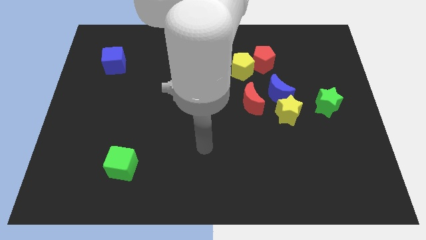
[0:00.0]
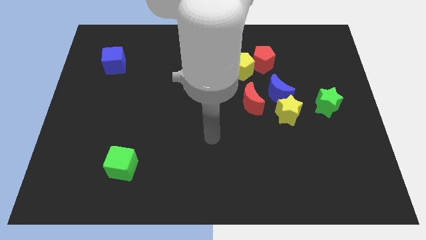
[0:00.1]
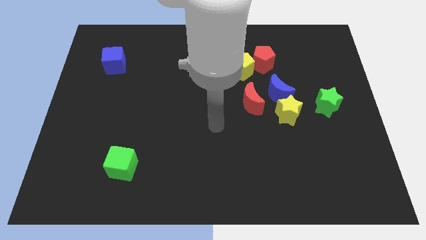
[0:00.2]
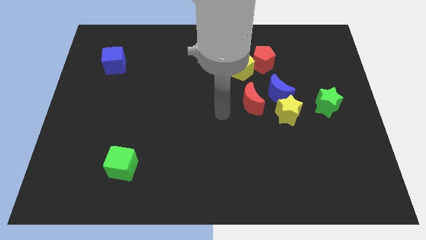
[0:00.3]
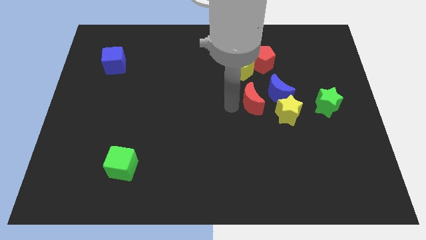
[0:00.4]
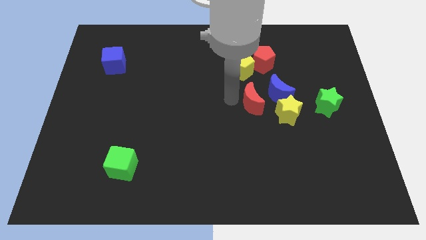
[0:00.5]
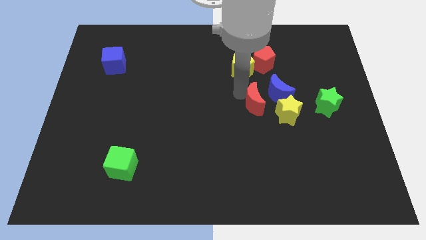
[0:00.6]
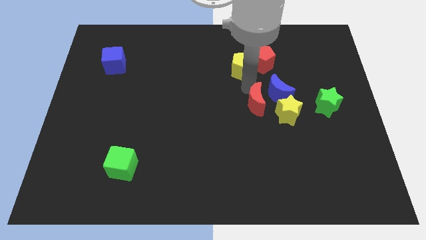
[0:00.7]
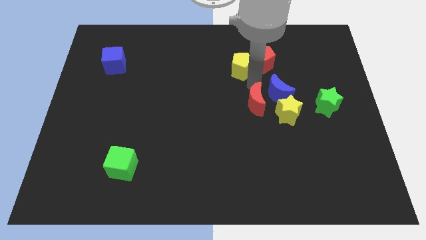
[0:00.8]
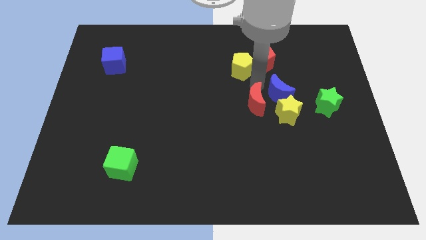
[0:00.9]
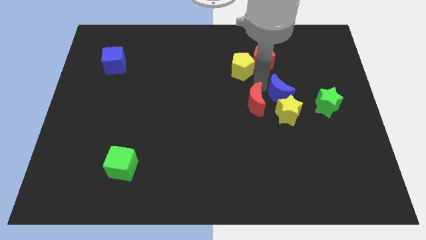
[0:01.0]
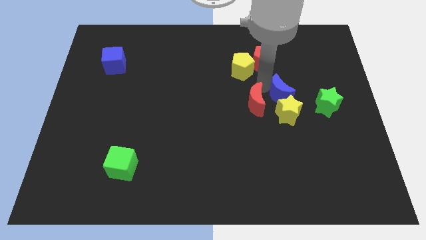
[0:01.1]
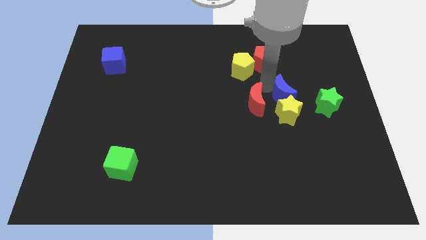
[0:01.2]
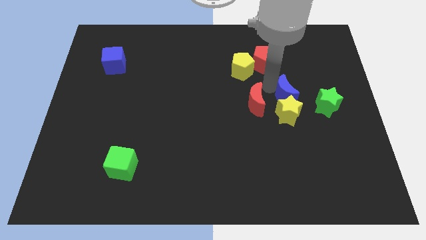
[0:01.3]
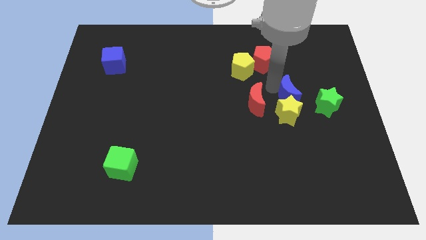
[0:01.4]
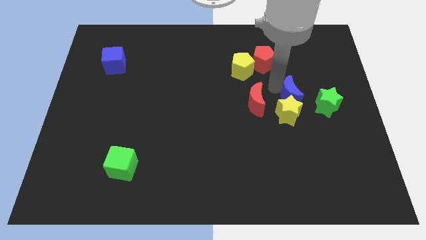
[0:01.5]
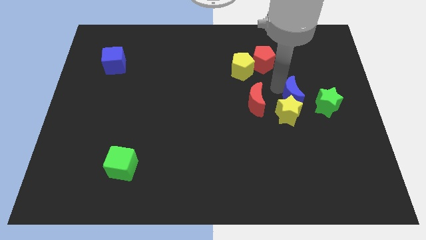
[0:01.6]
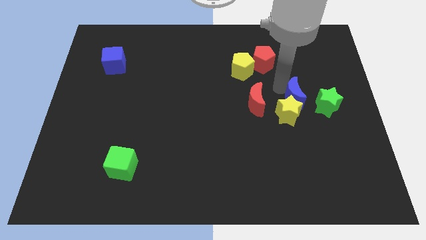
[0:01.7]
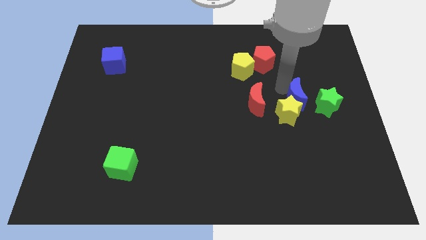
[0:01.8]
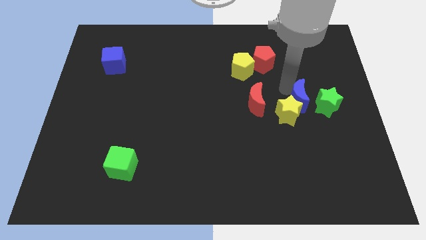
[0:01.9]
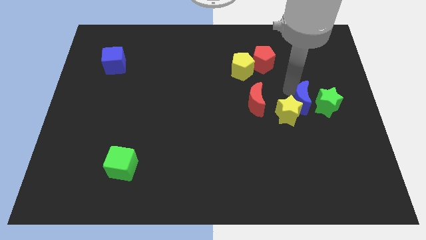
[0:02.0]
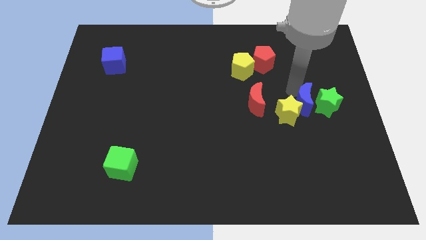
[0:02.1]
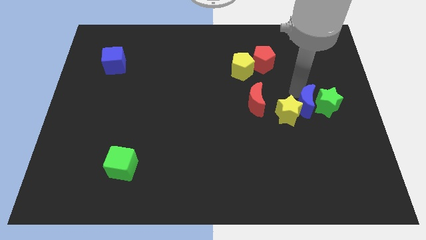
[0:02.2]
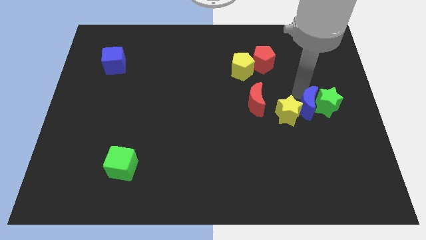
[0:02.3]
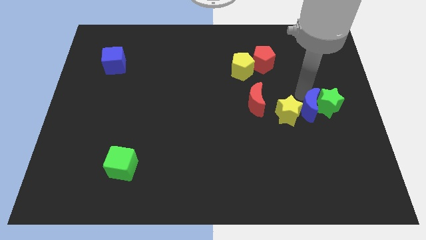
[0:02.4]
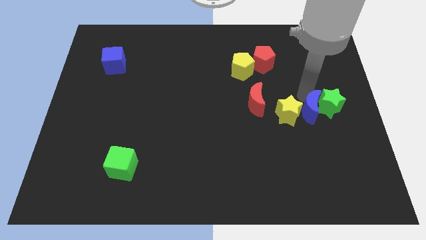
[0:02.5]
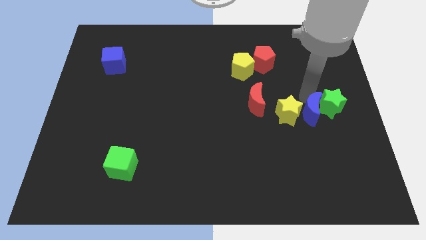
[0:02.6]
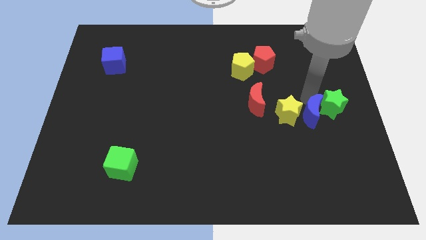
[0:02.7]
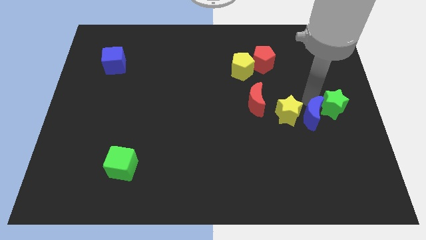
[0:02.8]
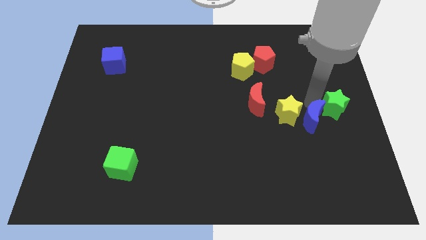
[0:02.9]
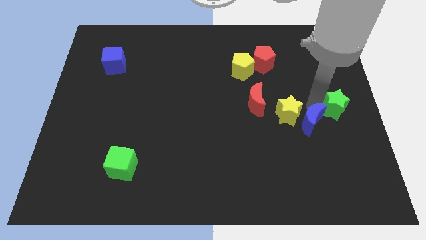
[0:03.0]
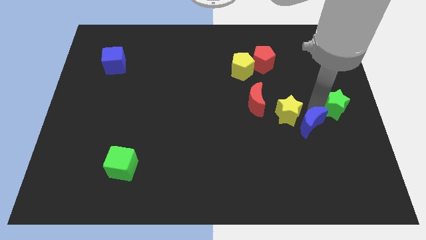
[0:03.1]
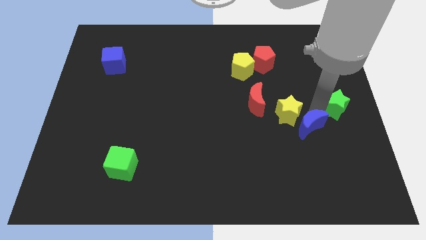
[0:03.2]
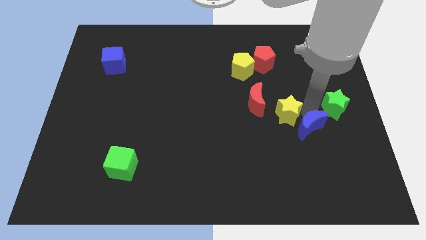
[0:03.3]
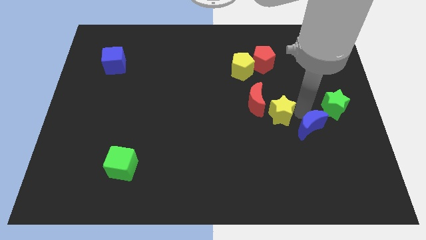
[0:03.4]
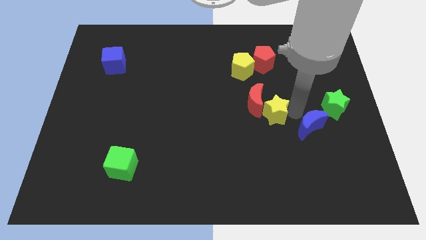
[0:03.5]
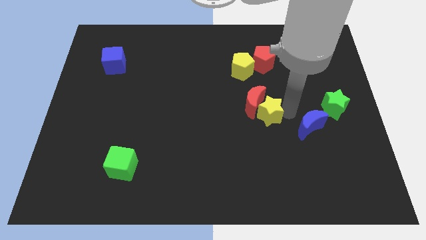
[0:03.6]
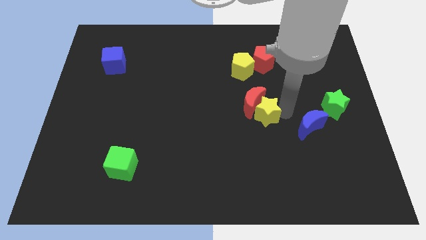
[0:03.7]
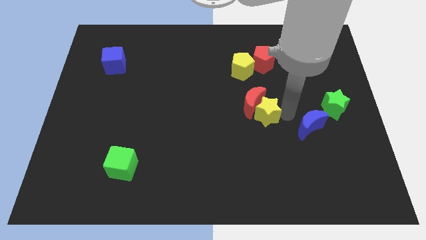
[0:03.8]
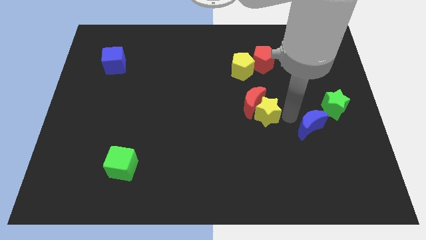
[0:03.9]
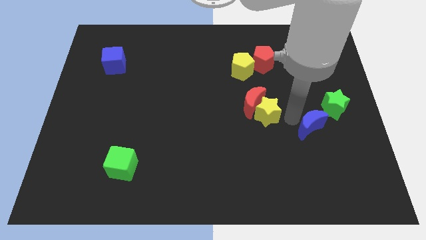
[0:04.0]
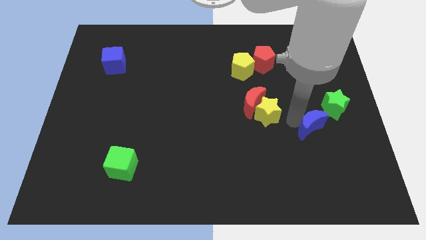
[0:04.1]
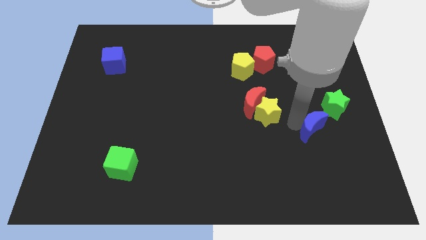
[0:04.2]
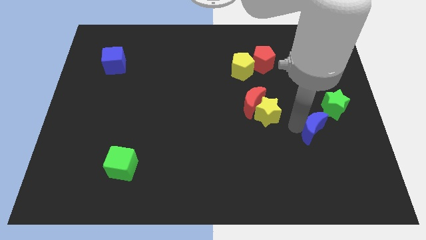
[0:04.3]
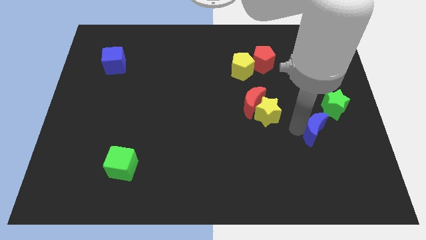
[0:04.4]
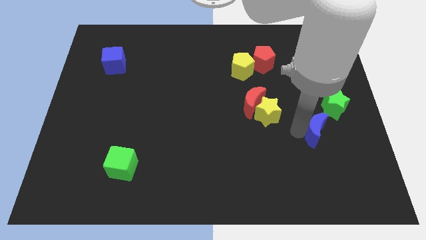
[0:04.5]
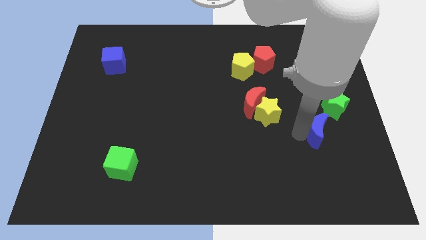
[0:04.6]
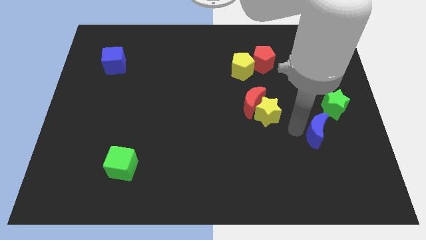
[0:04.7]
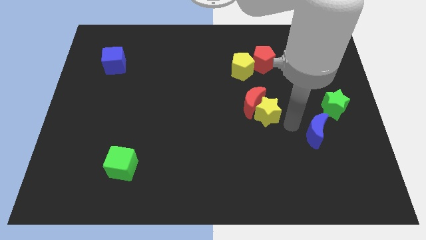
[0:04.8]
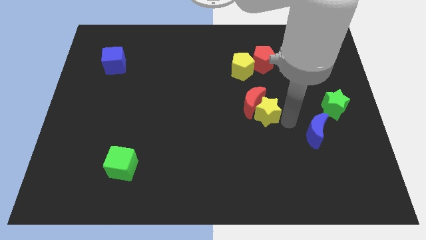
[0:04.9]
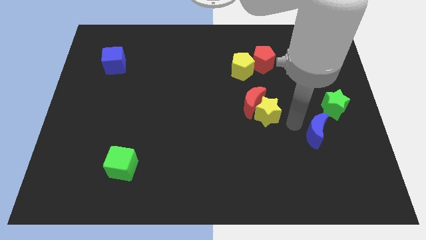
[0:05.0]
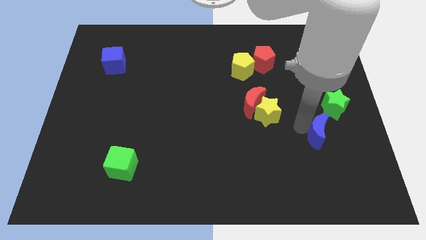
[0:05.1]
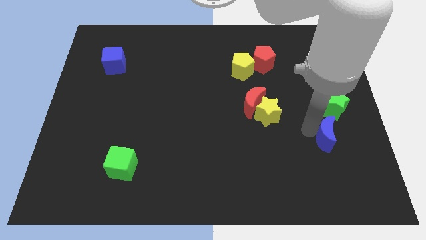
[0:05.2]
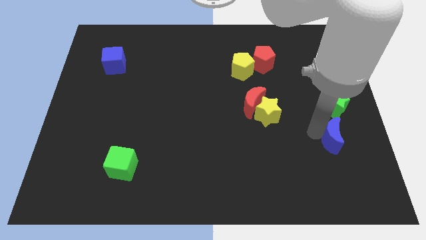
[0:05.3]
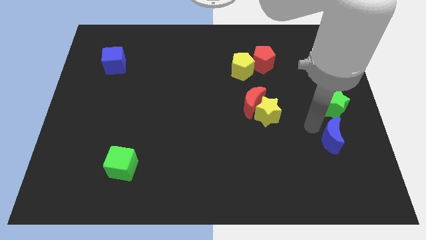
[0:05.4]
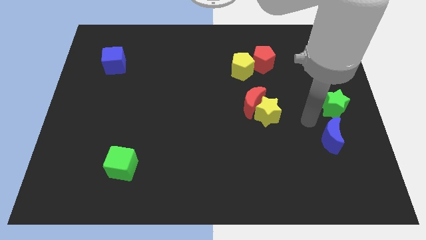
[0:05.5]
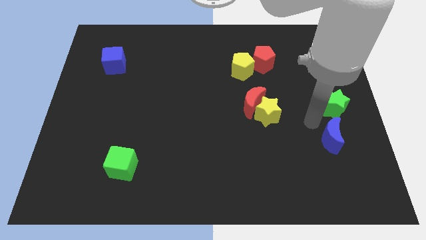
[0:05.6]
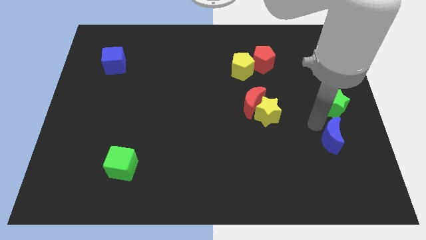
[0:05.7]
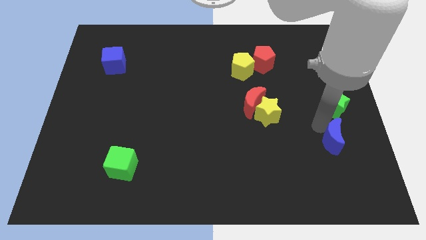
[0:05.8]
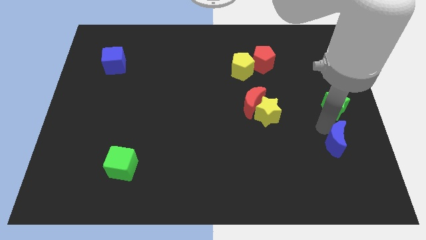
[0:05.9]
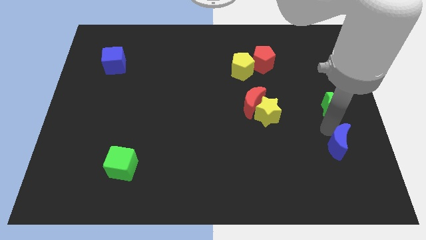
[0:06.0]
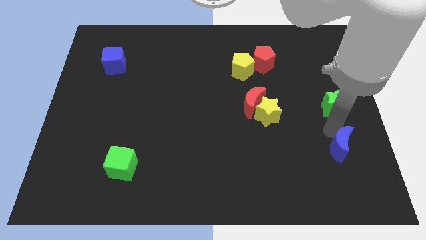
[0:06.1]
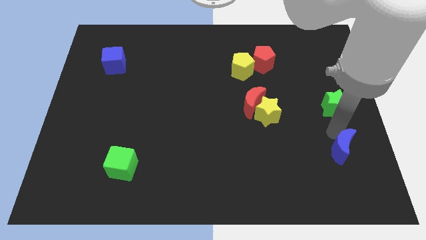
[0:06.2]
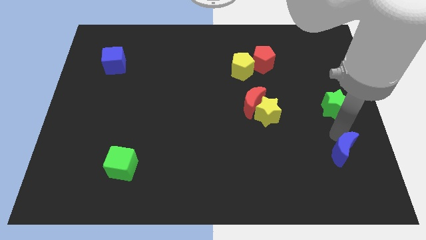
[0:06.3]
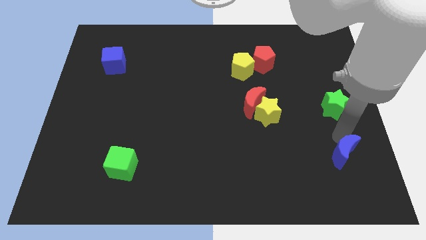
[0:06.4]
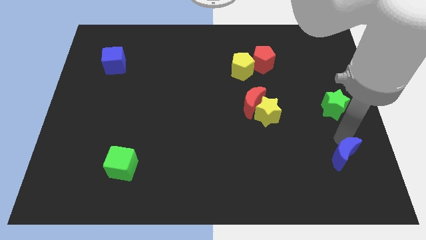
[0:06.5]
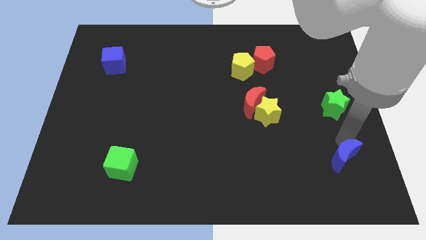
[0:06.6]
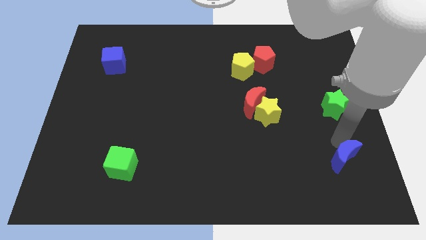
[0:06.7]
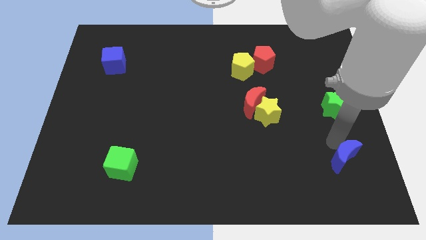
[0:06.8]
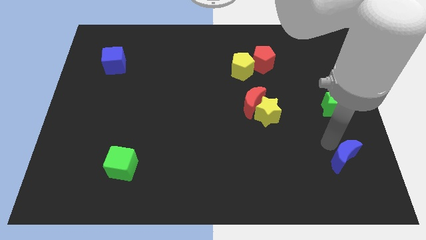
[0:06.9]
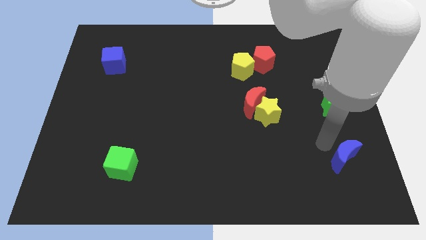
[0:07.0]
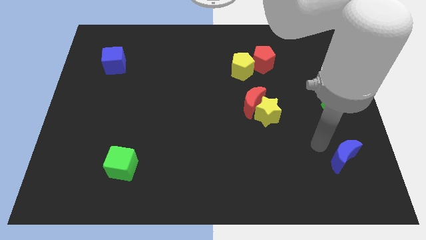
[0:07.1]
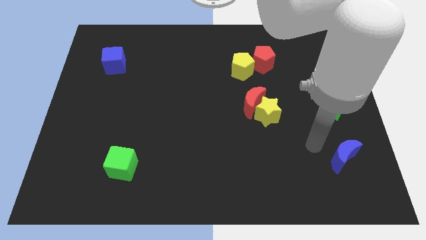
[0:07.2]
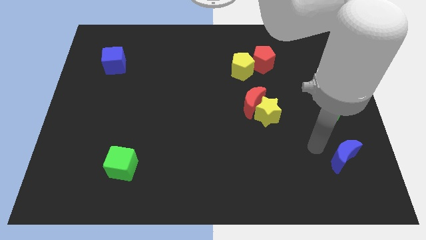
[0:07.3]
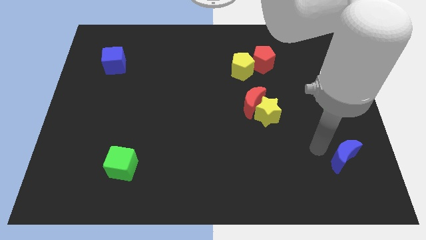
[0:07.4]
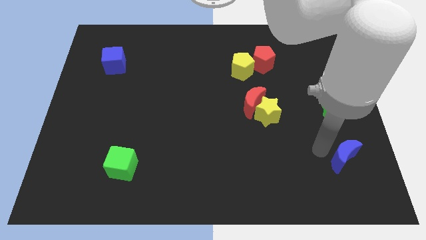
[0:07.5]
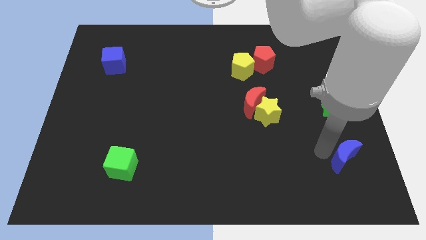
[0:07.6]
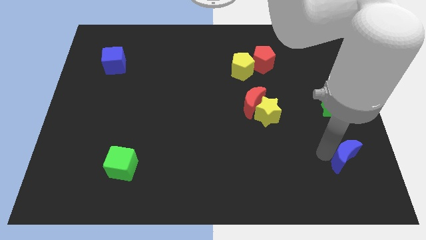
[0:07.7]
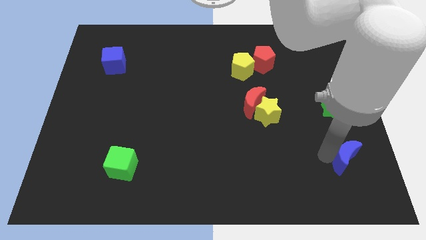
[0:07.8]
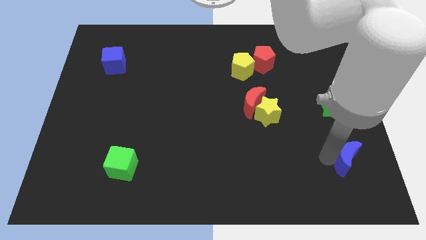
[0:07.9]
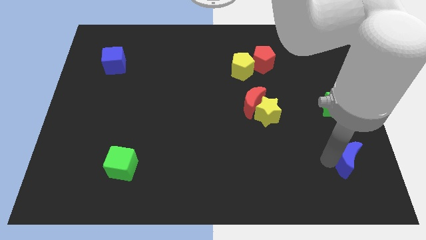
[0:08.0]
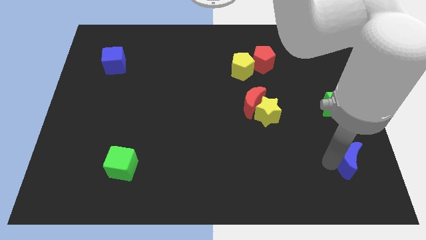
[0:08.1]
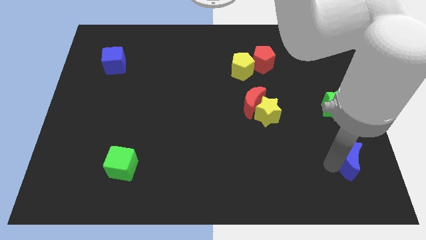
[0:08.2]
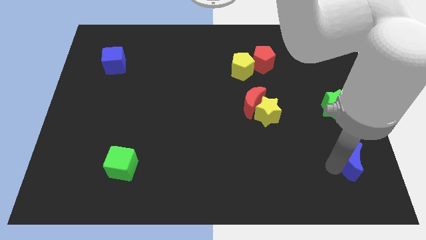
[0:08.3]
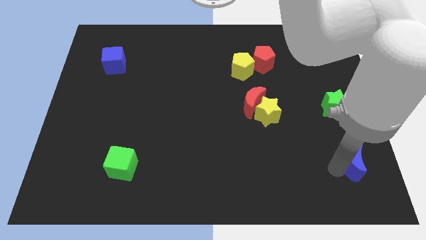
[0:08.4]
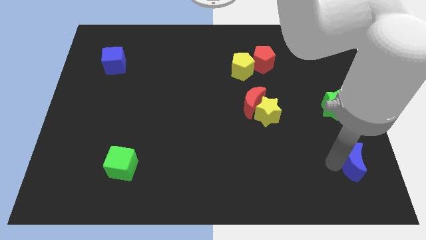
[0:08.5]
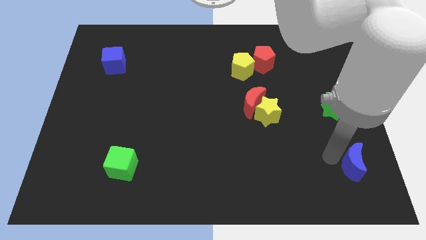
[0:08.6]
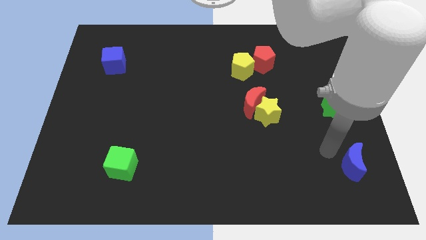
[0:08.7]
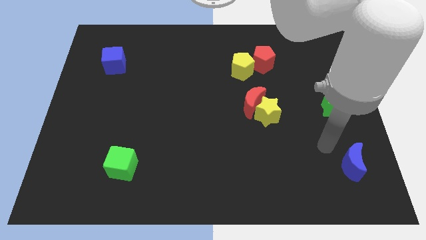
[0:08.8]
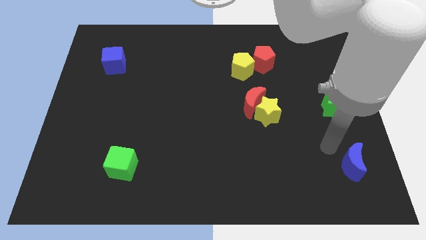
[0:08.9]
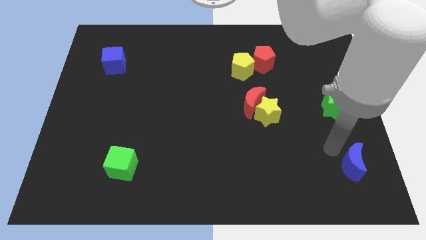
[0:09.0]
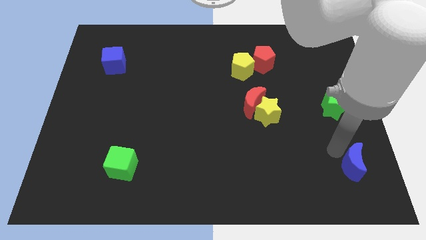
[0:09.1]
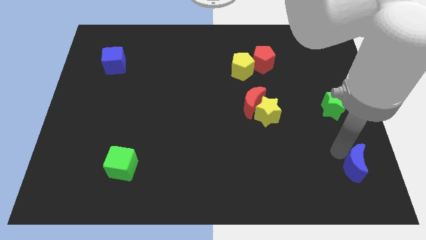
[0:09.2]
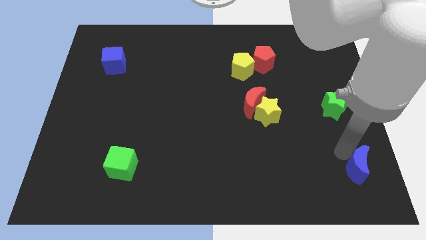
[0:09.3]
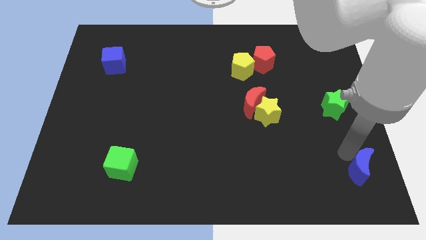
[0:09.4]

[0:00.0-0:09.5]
move the blue moon to the bottom right of the board
